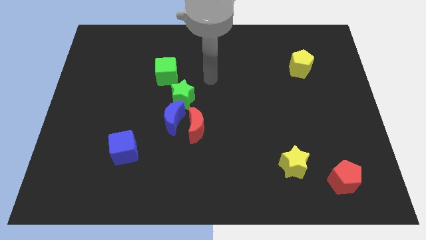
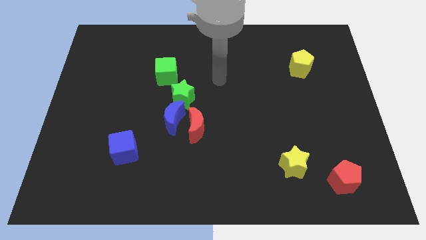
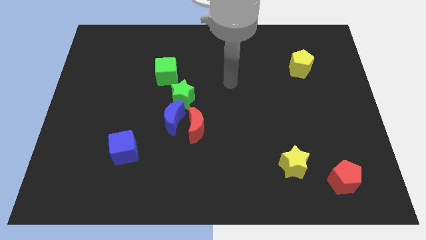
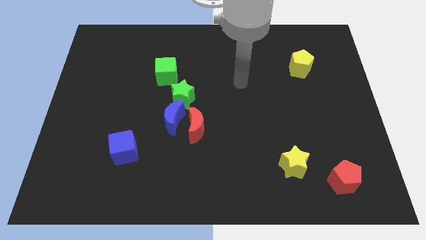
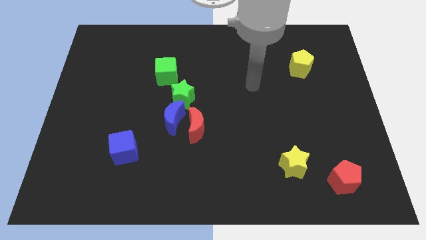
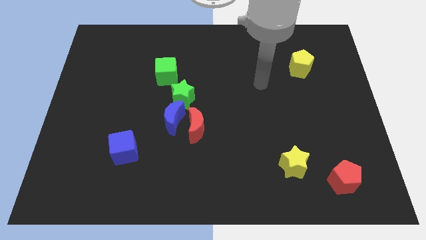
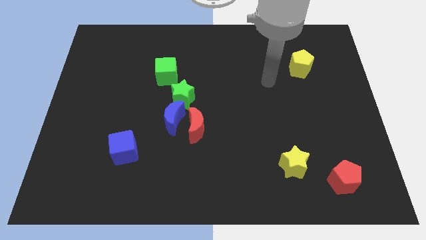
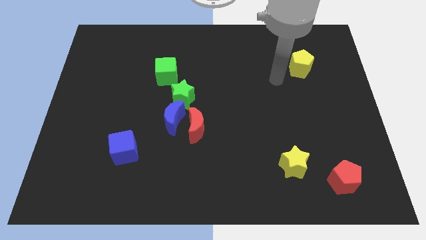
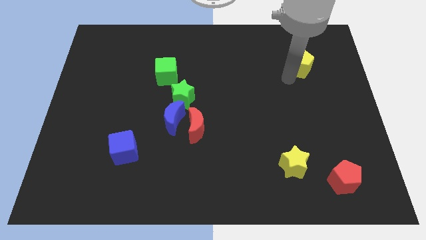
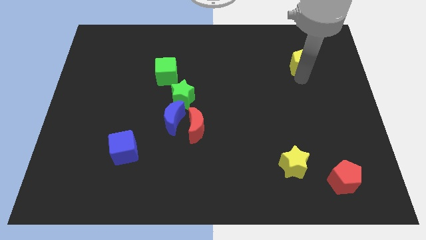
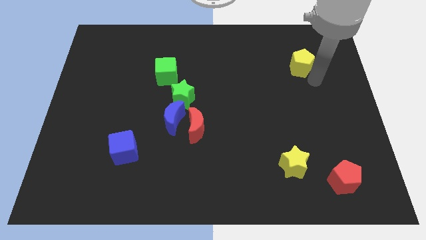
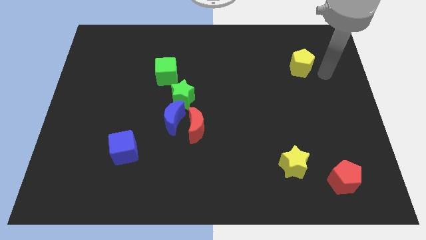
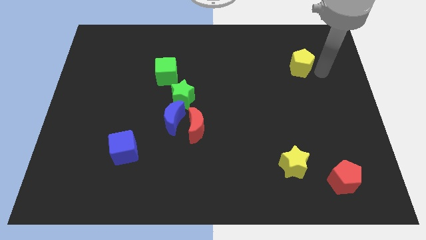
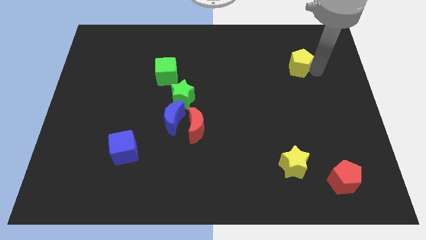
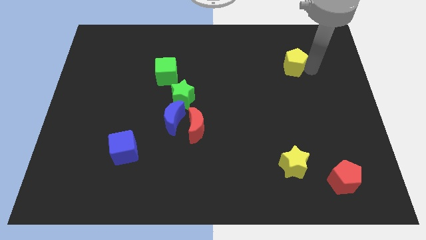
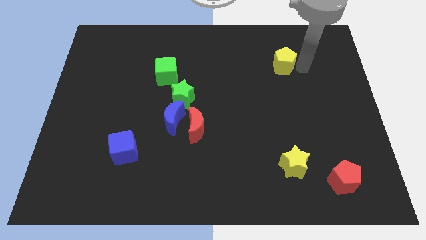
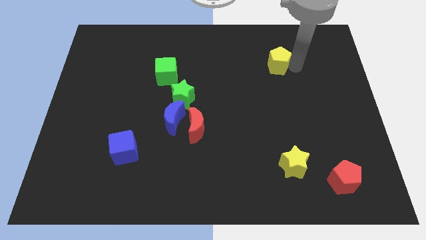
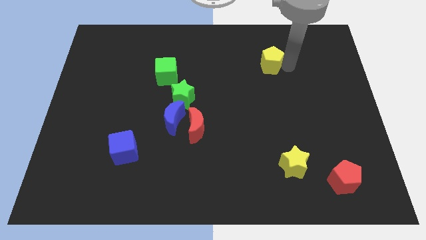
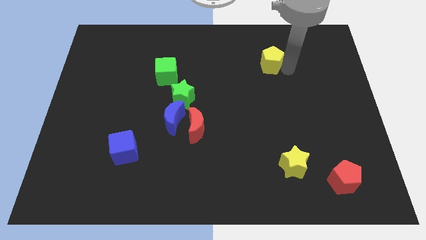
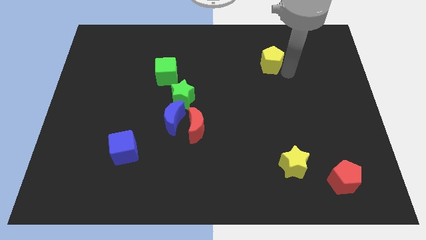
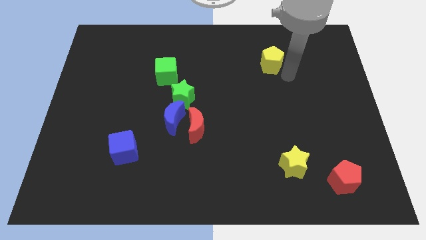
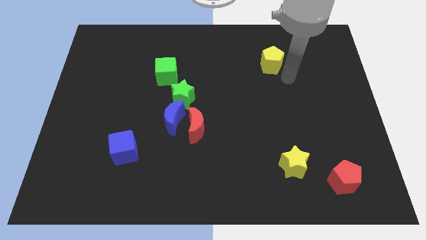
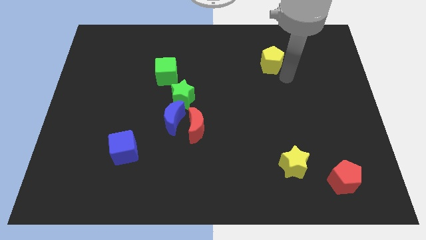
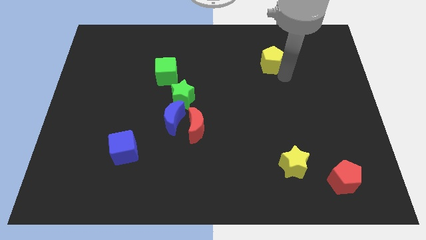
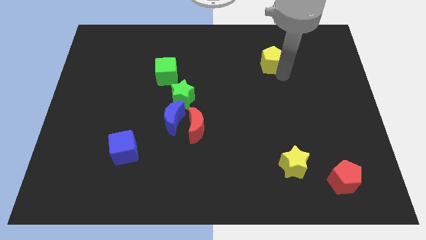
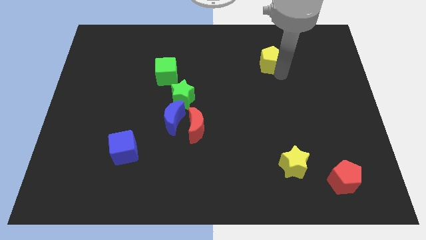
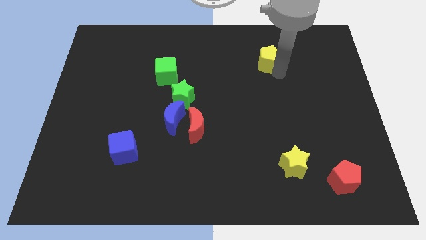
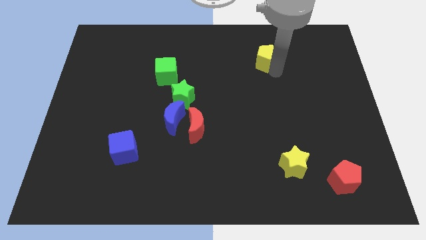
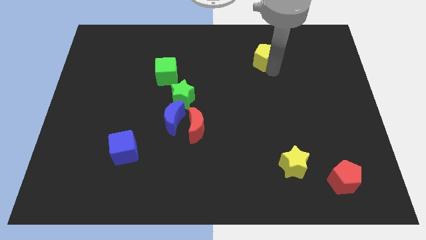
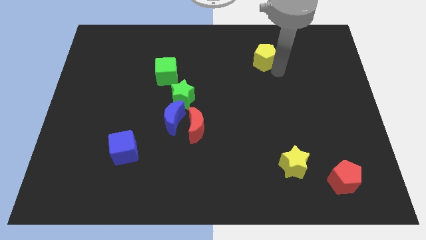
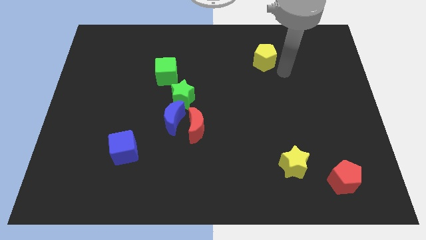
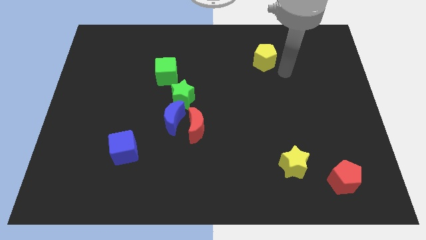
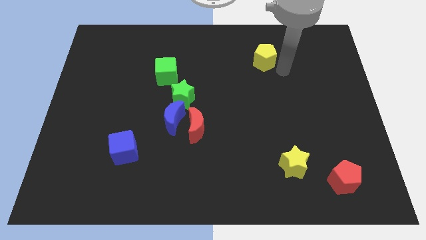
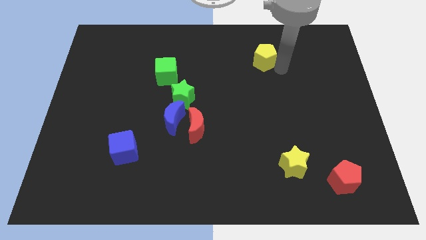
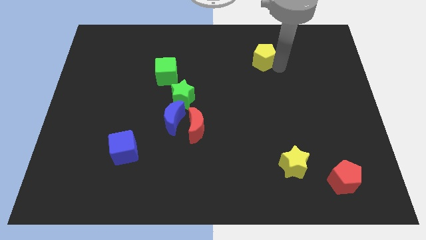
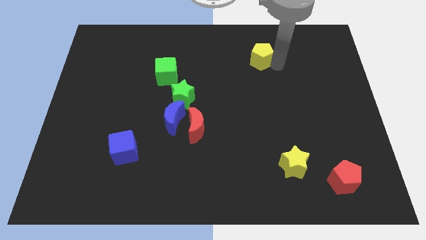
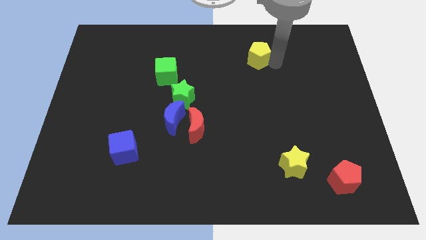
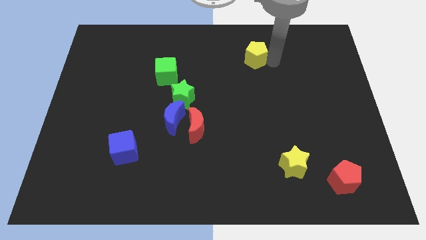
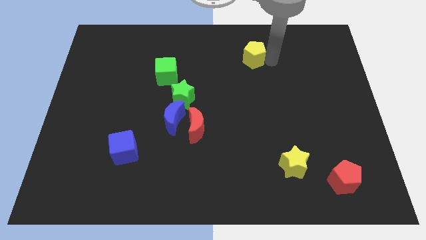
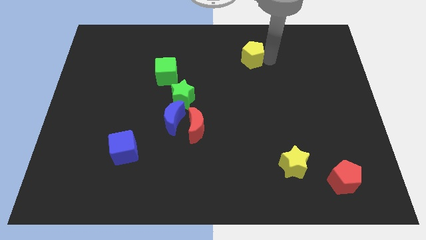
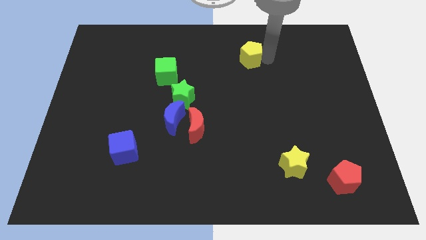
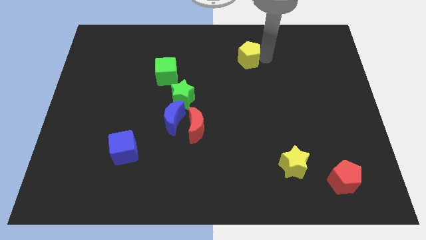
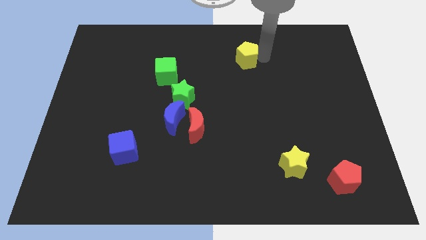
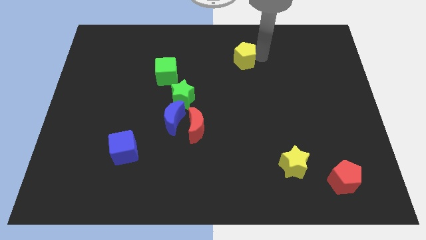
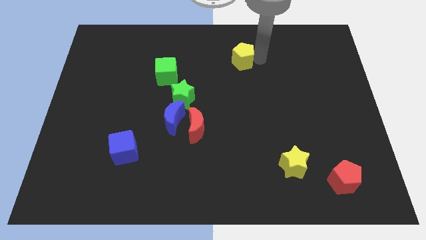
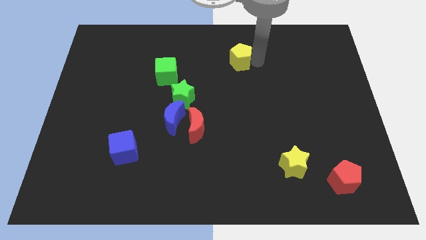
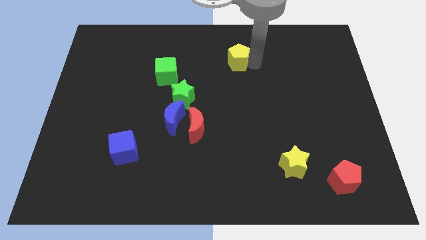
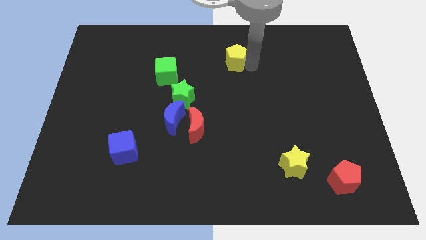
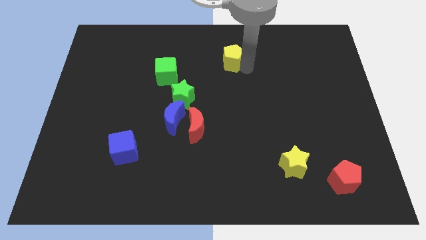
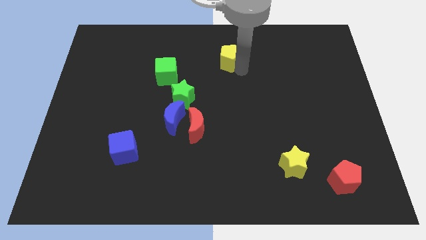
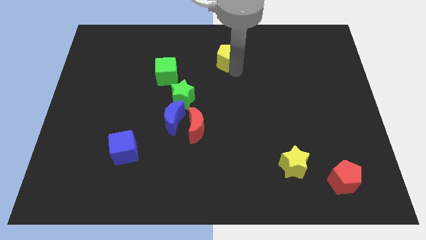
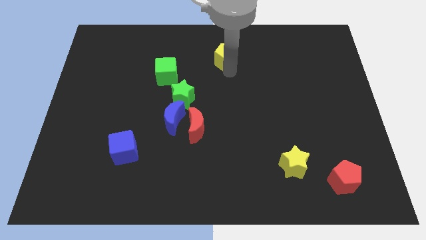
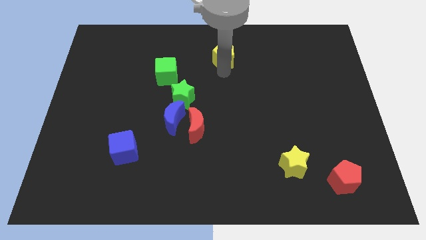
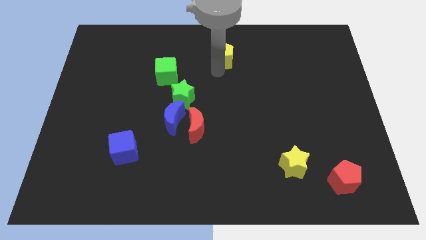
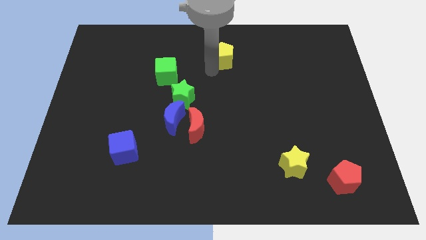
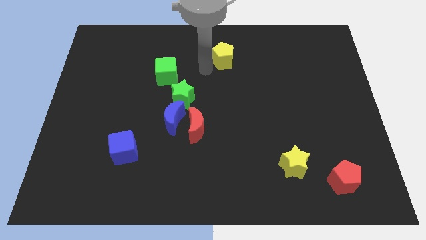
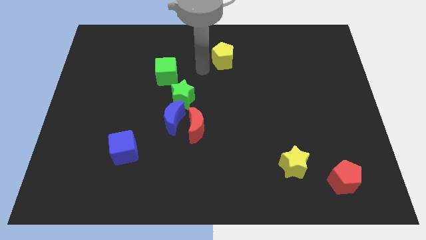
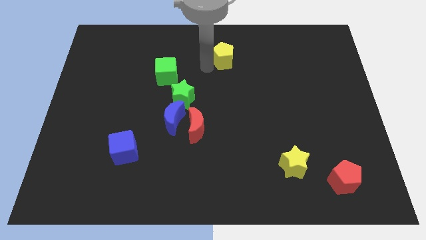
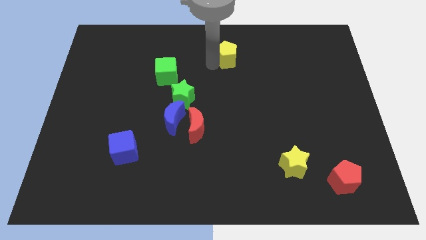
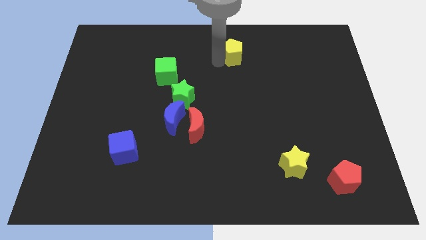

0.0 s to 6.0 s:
push the yellow pentagon to the top

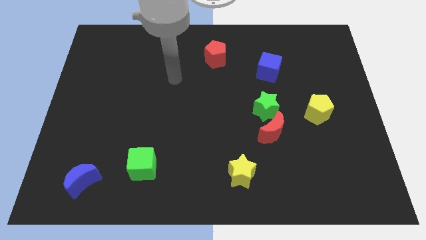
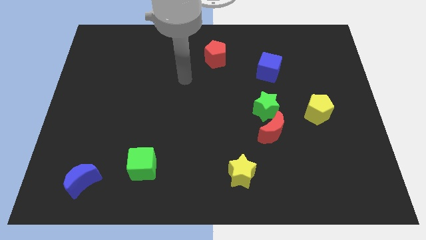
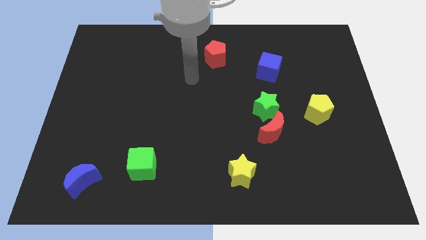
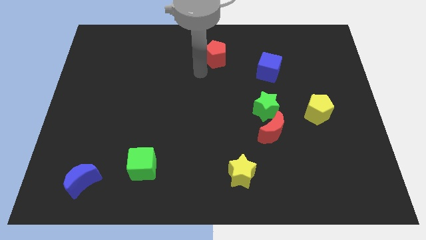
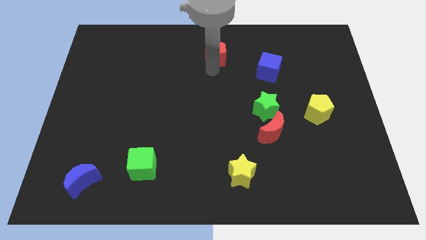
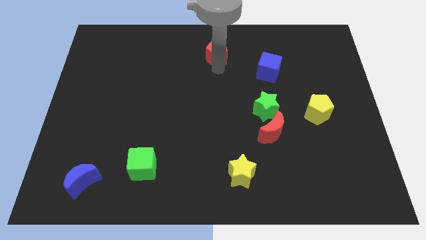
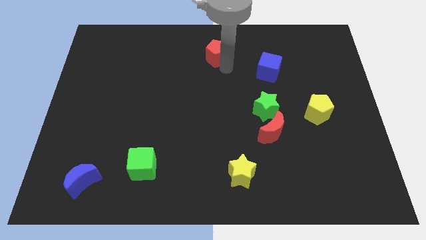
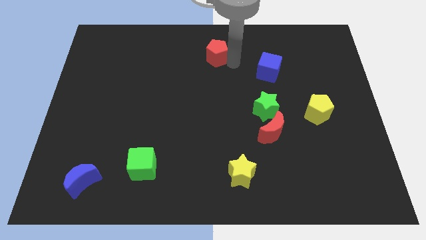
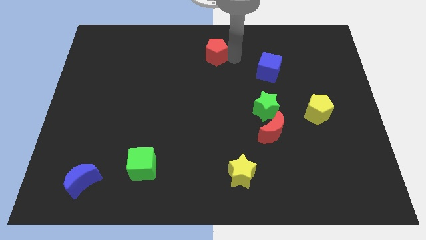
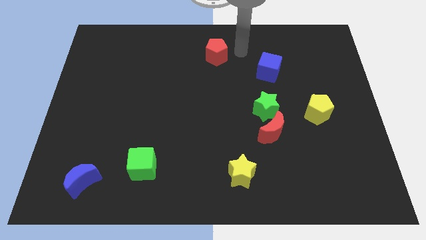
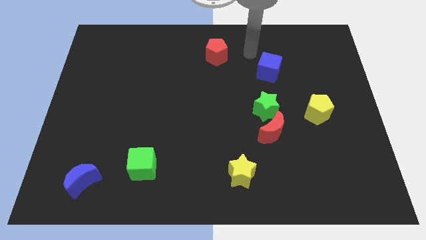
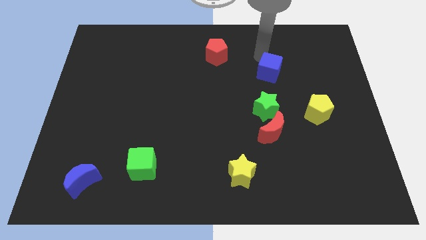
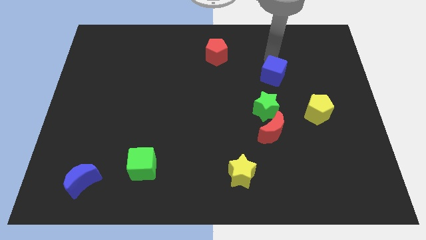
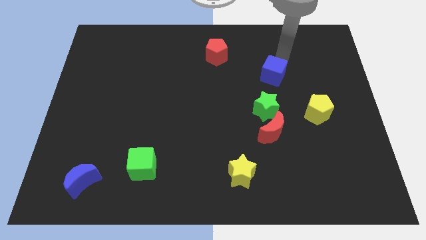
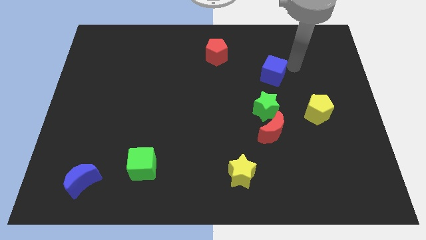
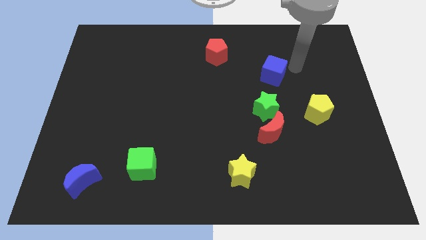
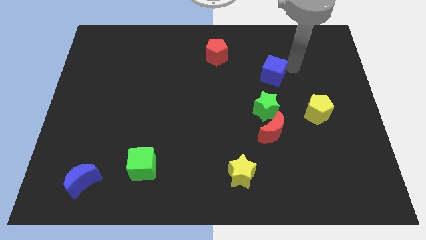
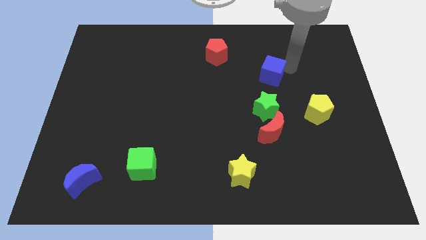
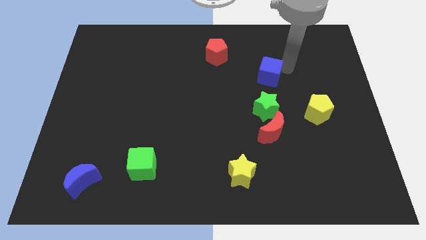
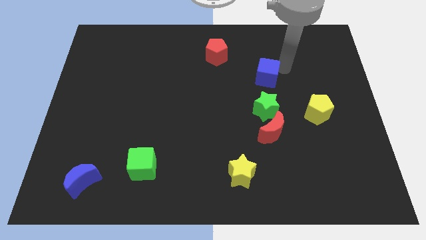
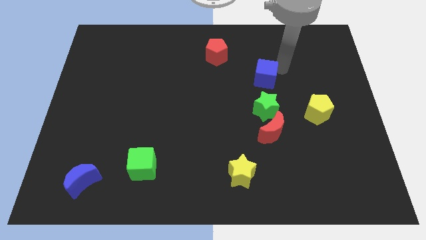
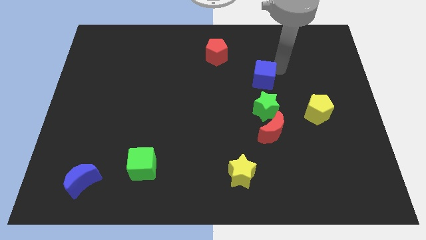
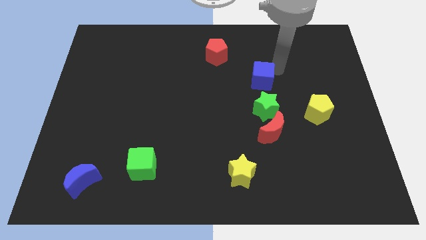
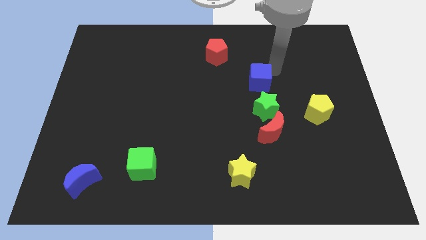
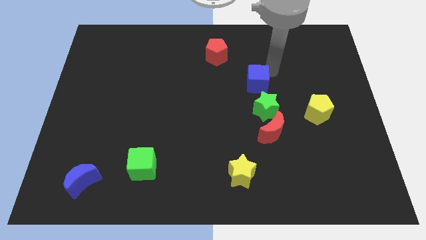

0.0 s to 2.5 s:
put the blue cube to the middle of the board
